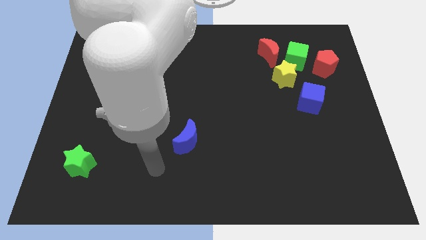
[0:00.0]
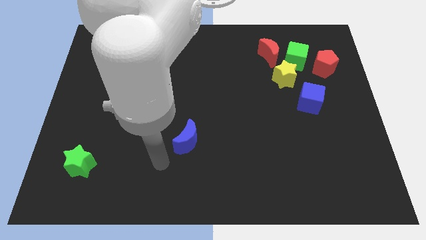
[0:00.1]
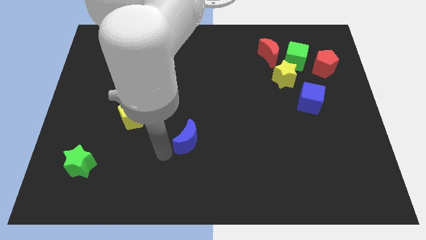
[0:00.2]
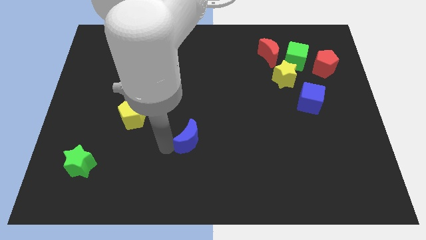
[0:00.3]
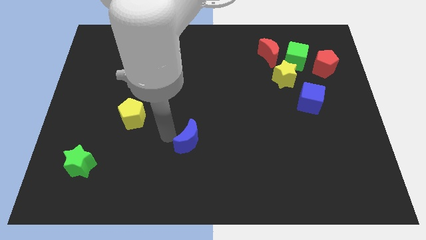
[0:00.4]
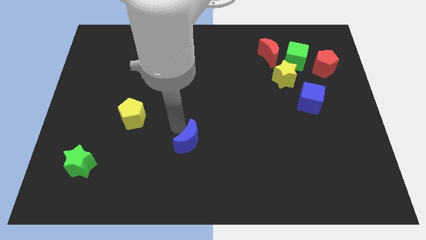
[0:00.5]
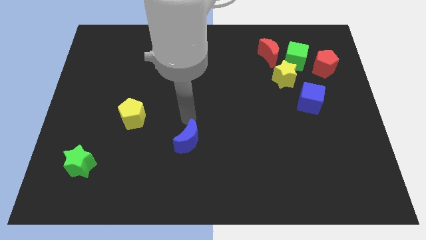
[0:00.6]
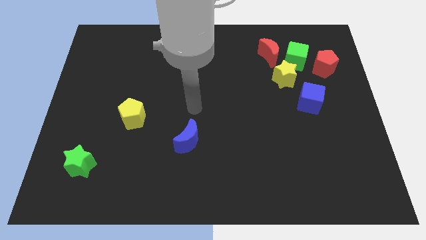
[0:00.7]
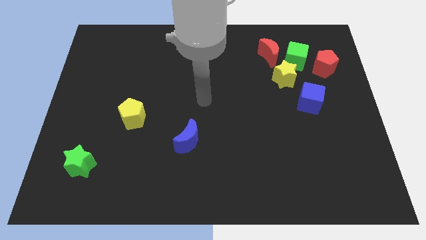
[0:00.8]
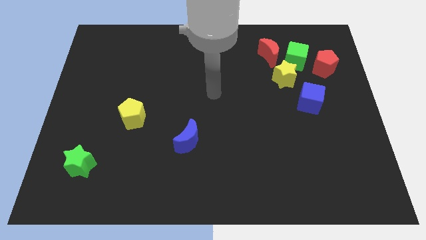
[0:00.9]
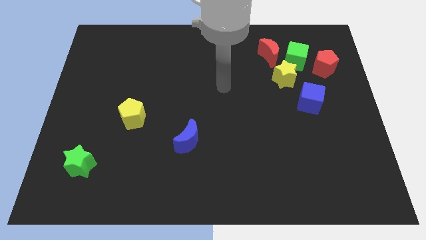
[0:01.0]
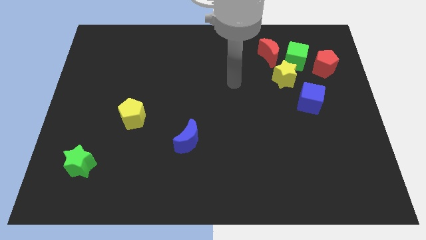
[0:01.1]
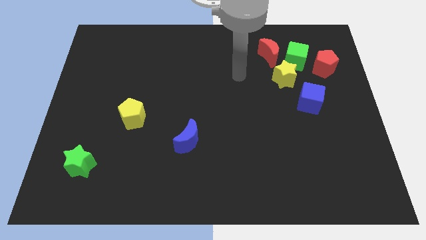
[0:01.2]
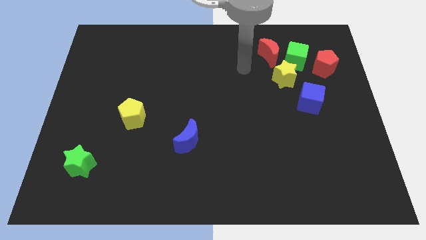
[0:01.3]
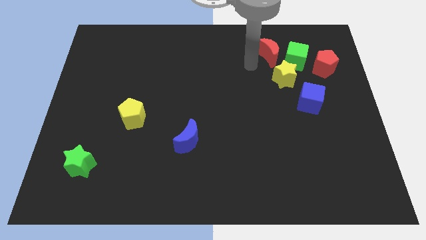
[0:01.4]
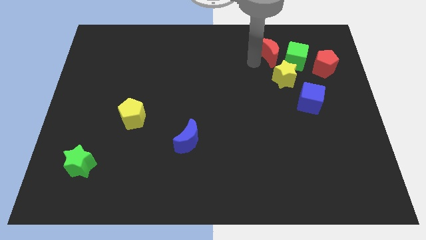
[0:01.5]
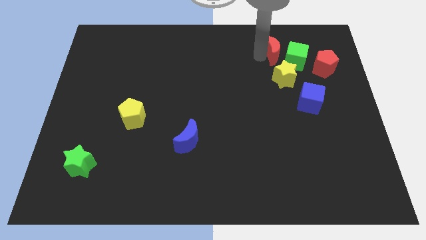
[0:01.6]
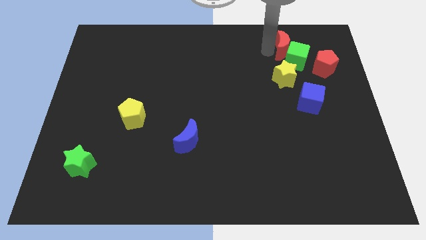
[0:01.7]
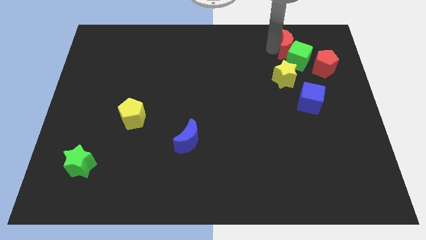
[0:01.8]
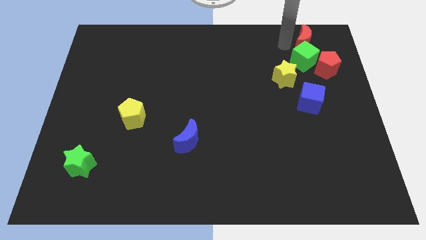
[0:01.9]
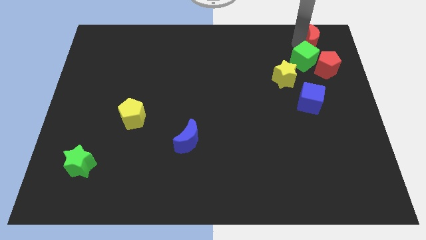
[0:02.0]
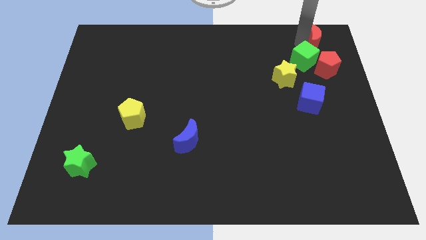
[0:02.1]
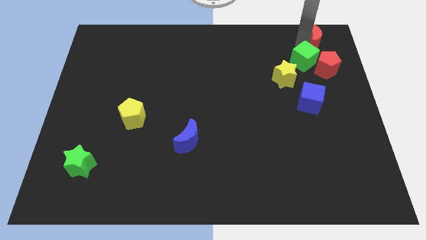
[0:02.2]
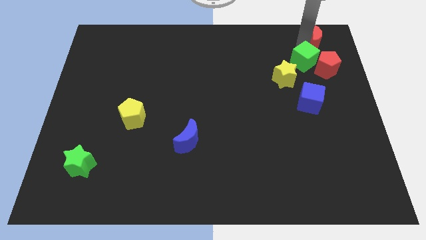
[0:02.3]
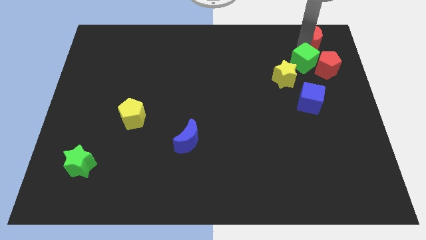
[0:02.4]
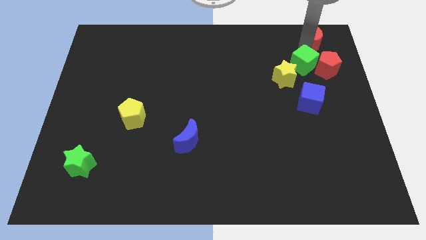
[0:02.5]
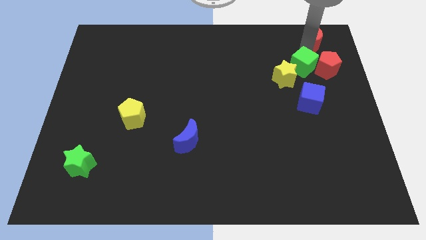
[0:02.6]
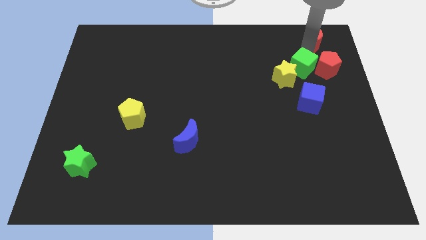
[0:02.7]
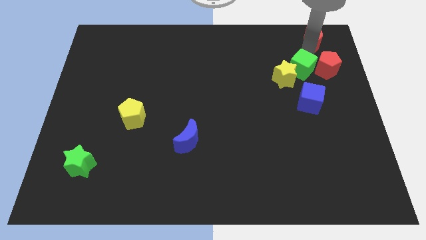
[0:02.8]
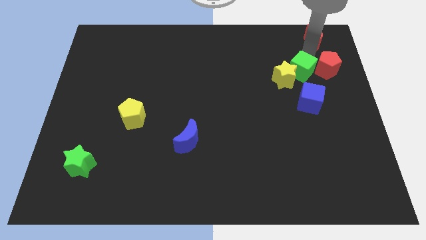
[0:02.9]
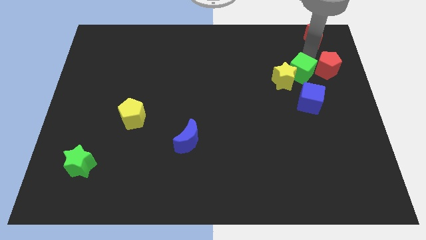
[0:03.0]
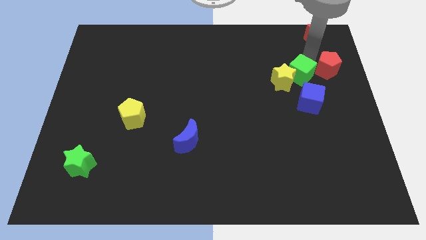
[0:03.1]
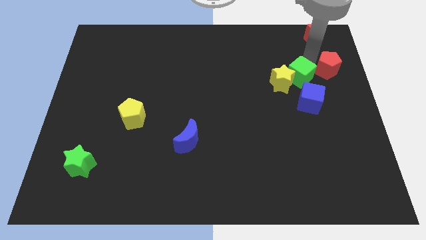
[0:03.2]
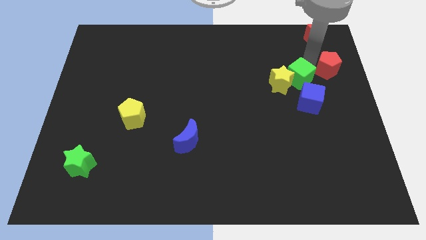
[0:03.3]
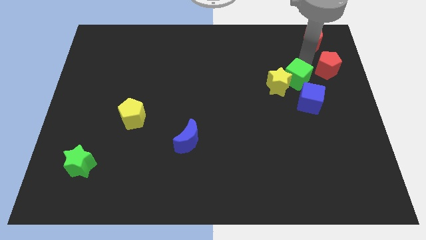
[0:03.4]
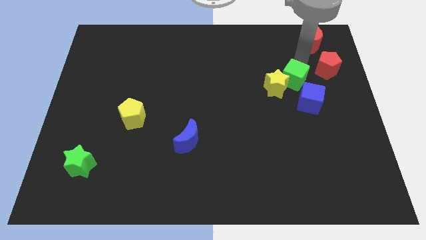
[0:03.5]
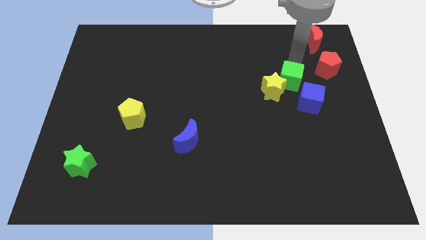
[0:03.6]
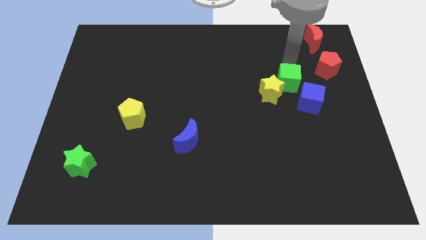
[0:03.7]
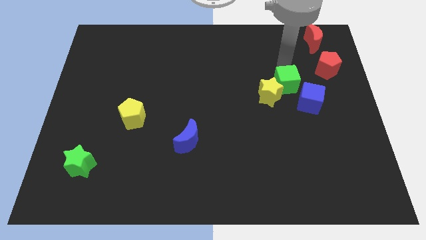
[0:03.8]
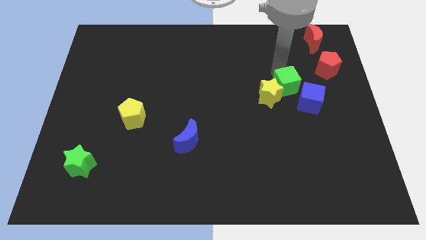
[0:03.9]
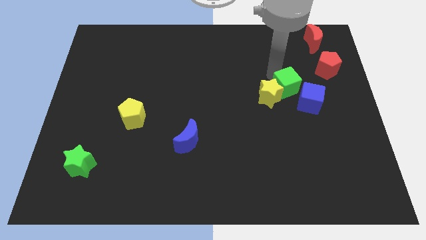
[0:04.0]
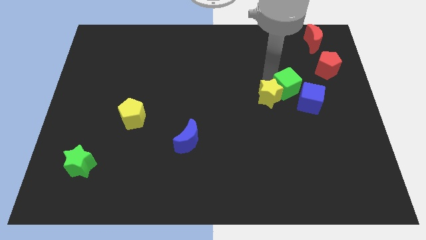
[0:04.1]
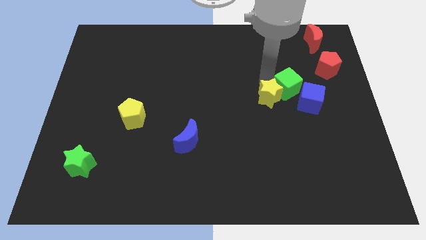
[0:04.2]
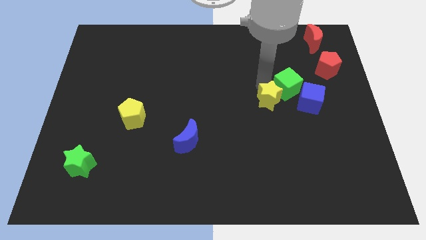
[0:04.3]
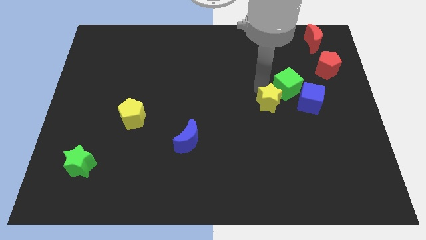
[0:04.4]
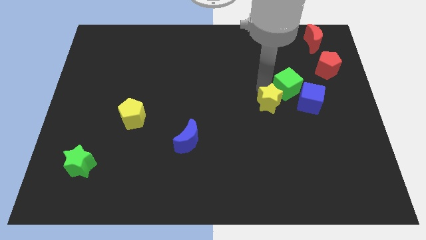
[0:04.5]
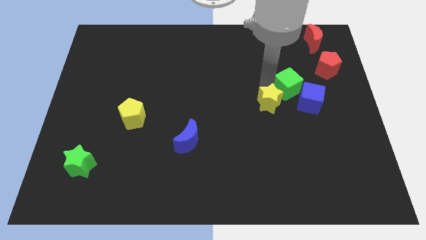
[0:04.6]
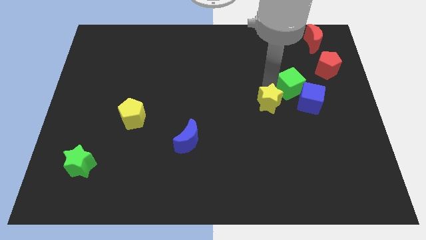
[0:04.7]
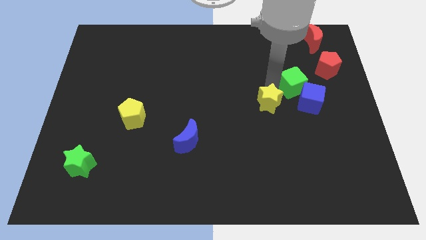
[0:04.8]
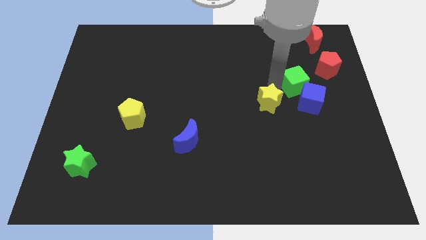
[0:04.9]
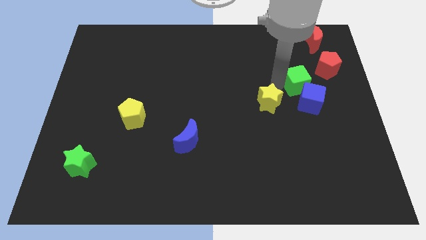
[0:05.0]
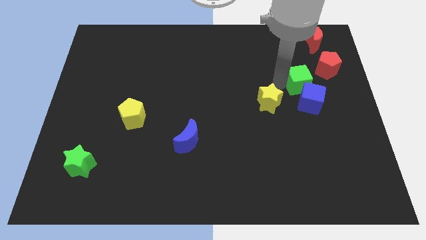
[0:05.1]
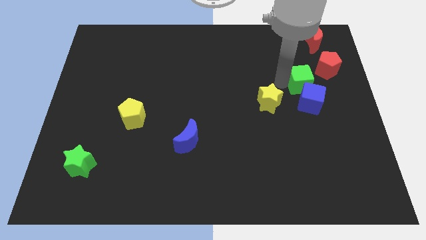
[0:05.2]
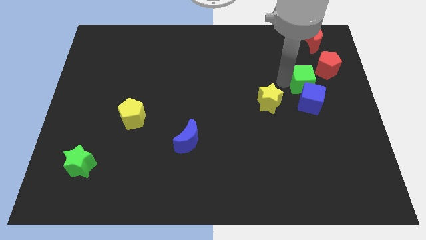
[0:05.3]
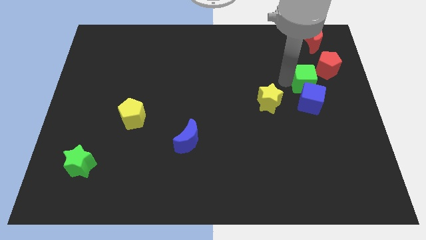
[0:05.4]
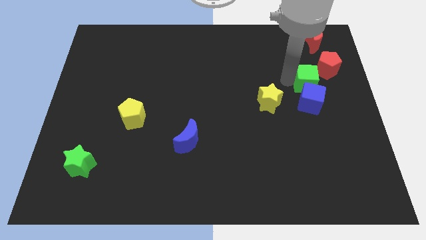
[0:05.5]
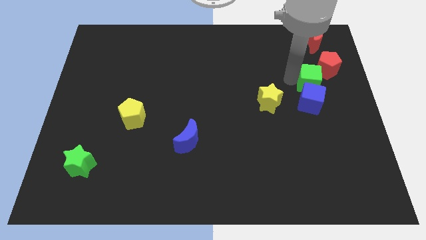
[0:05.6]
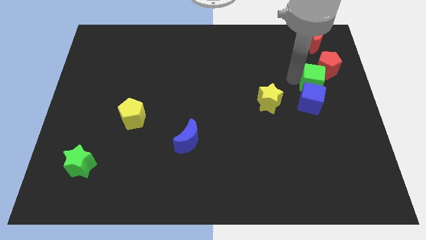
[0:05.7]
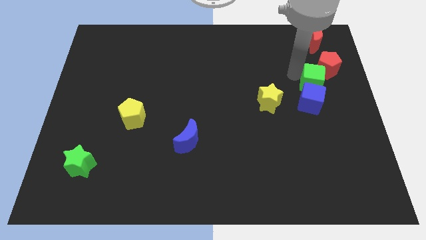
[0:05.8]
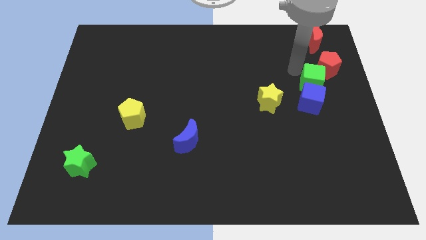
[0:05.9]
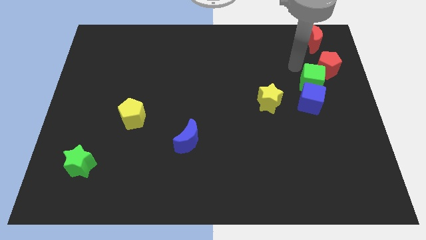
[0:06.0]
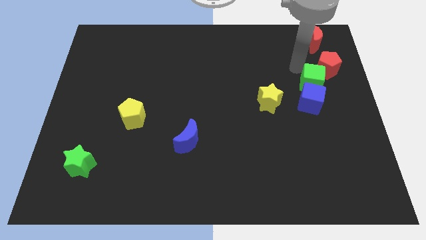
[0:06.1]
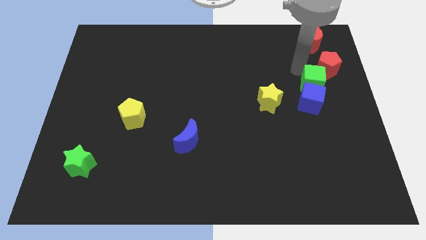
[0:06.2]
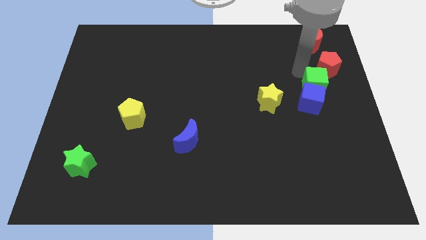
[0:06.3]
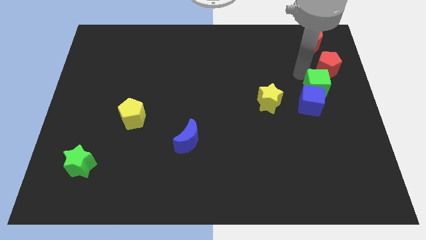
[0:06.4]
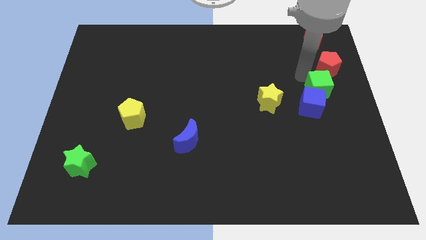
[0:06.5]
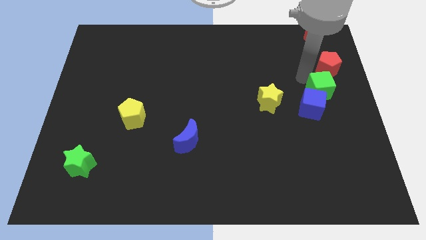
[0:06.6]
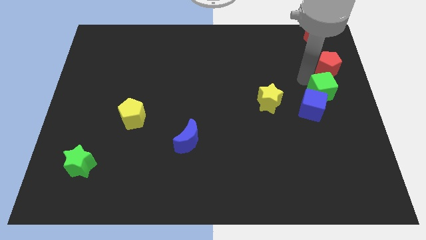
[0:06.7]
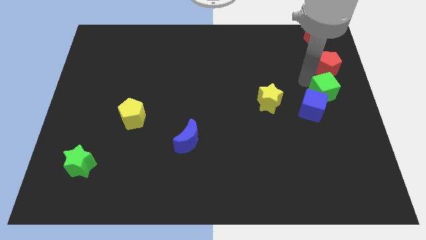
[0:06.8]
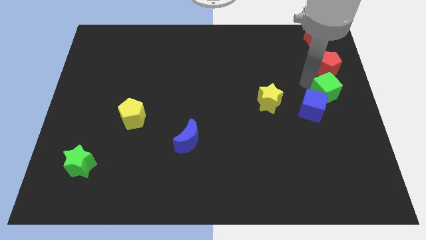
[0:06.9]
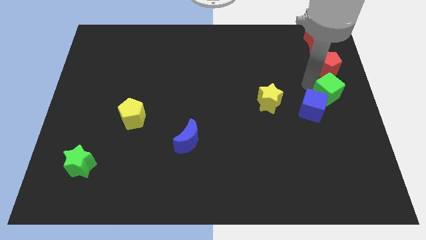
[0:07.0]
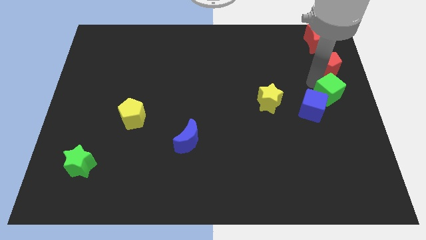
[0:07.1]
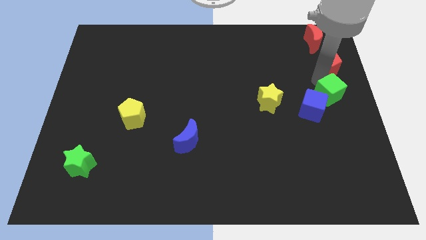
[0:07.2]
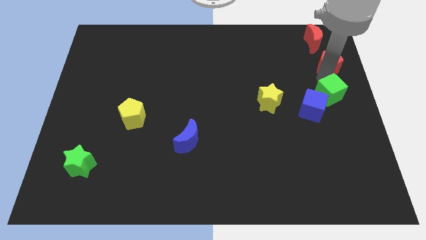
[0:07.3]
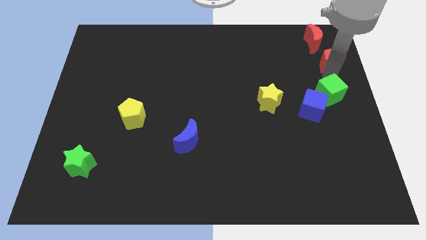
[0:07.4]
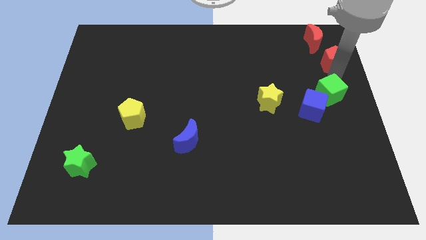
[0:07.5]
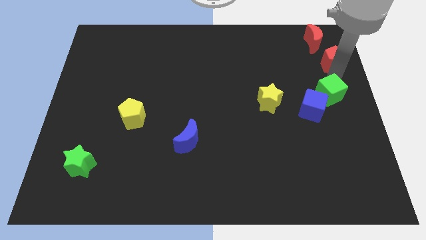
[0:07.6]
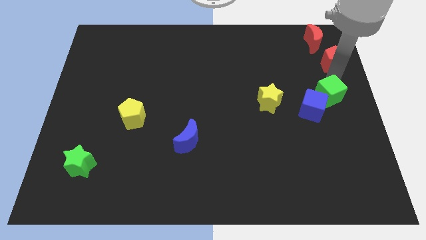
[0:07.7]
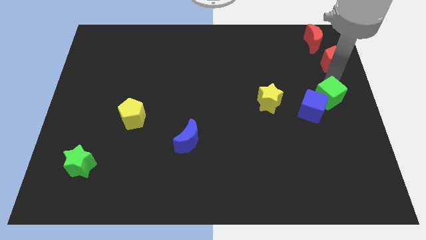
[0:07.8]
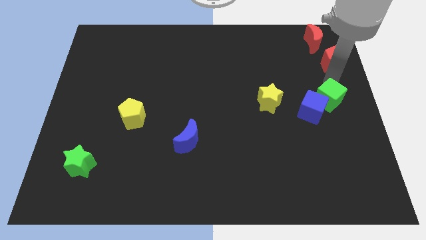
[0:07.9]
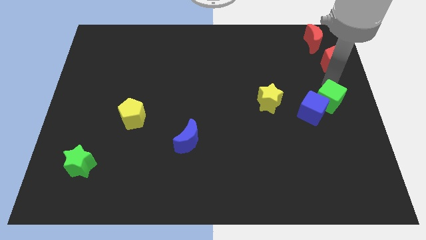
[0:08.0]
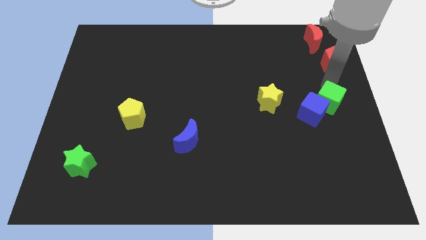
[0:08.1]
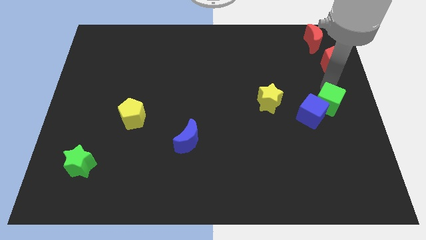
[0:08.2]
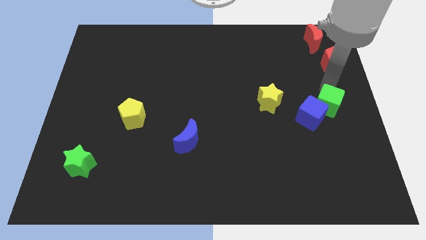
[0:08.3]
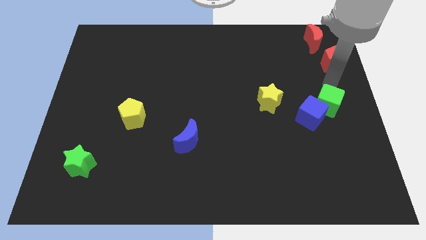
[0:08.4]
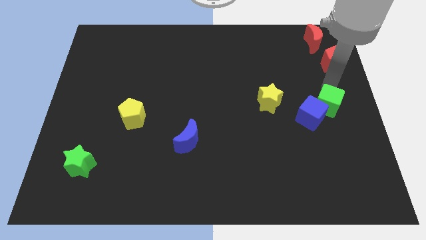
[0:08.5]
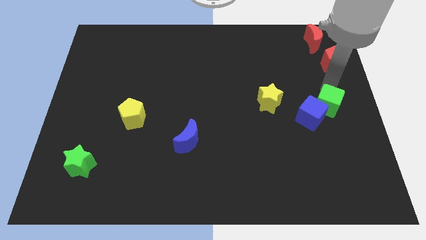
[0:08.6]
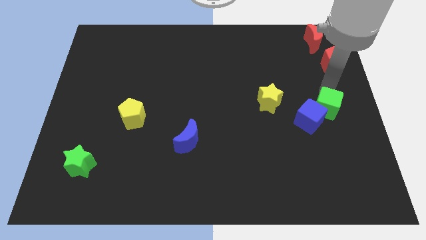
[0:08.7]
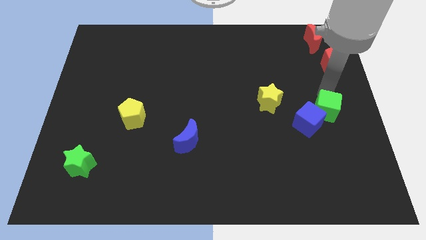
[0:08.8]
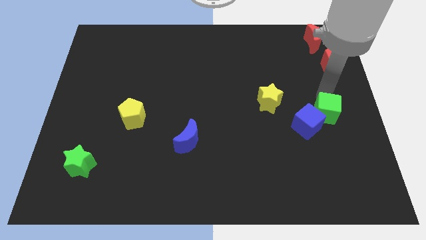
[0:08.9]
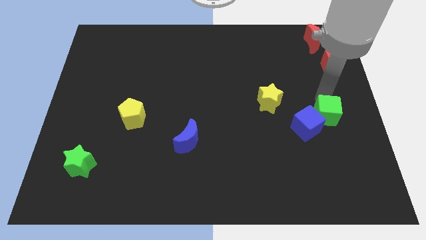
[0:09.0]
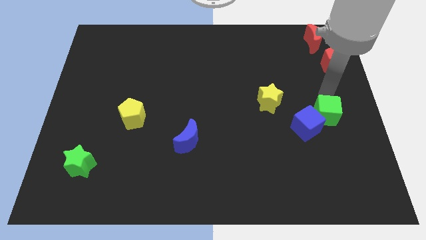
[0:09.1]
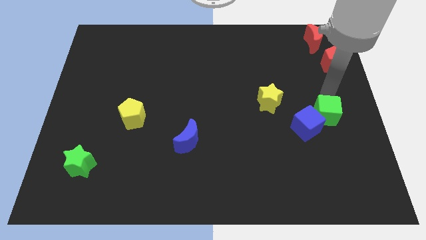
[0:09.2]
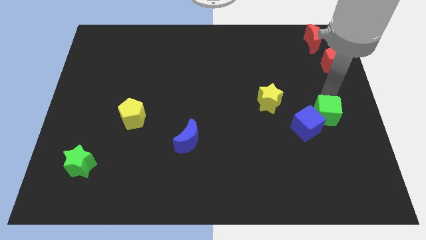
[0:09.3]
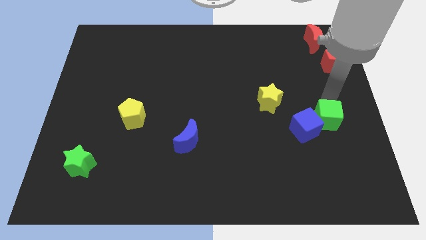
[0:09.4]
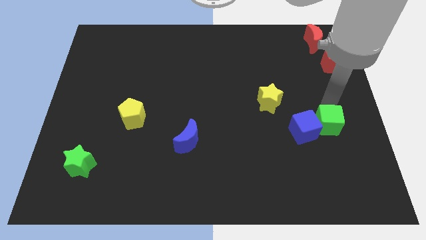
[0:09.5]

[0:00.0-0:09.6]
push the green cube down
